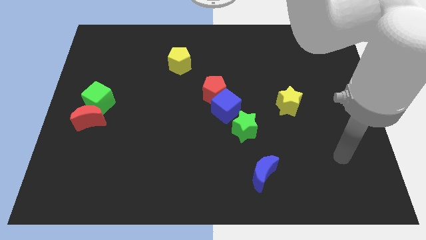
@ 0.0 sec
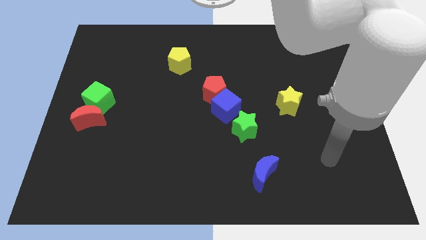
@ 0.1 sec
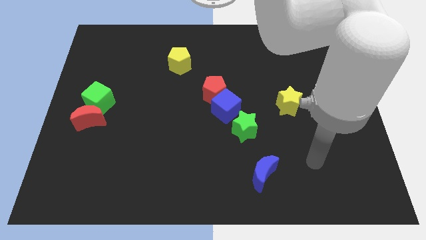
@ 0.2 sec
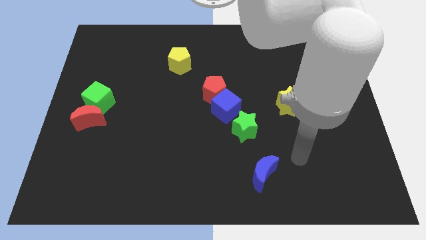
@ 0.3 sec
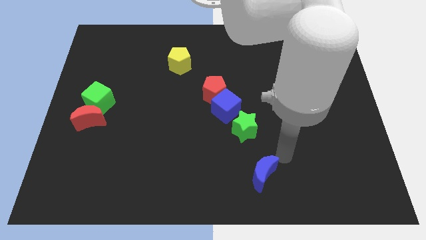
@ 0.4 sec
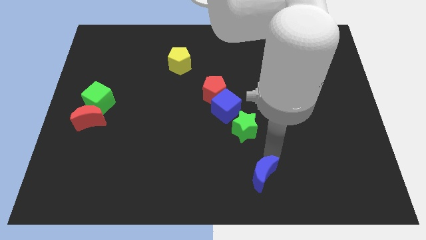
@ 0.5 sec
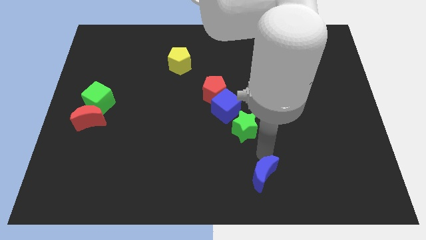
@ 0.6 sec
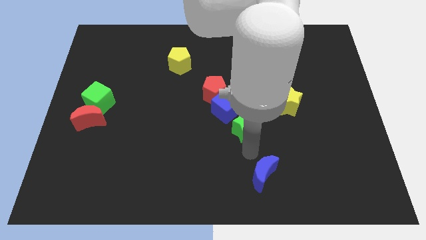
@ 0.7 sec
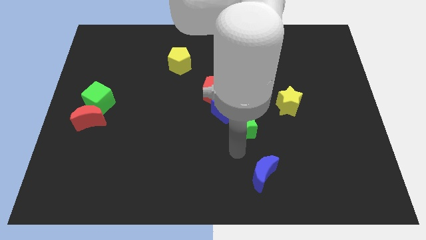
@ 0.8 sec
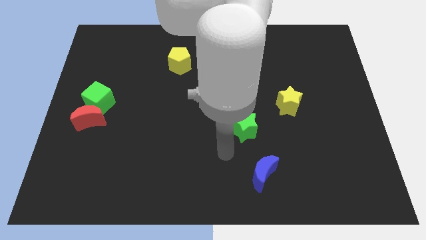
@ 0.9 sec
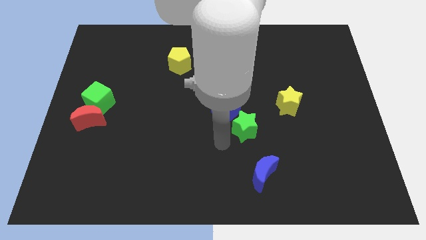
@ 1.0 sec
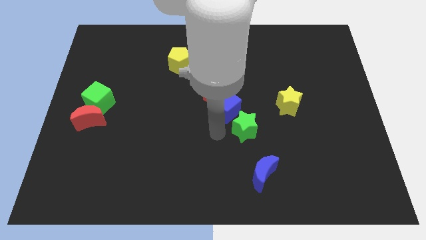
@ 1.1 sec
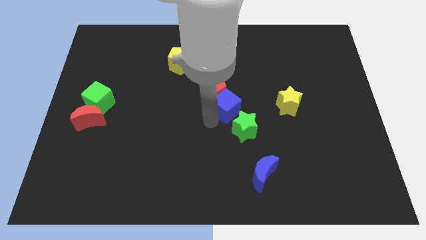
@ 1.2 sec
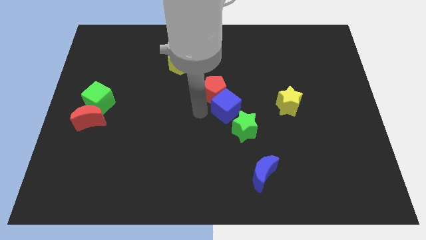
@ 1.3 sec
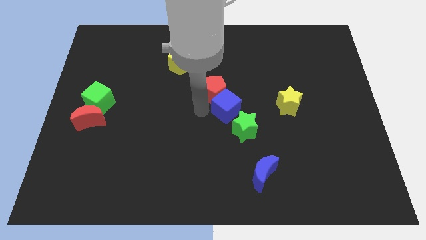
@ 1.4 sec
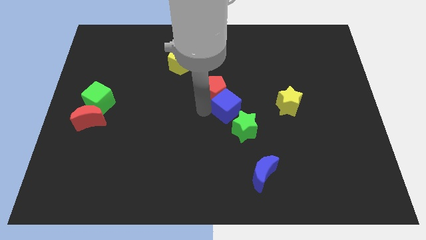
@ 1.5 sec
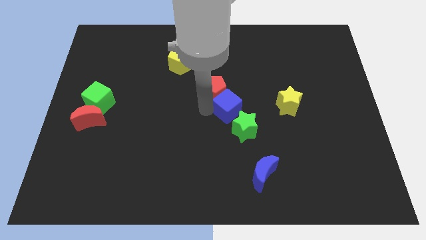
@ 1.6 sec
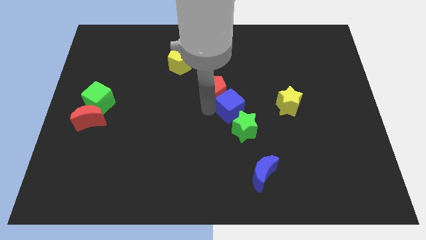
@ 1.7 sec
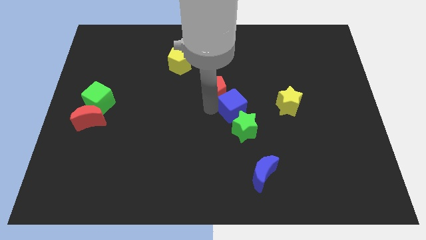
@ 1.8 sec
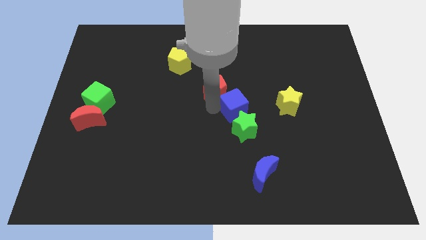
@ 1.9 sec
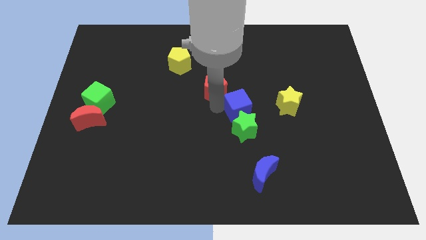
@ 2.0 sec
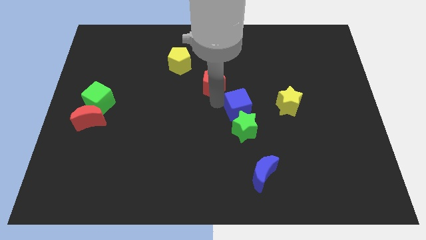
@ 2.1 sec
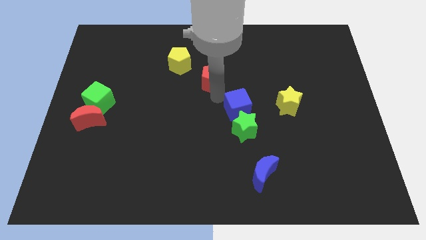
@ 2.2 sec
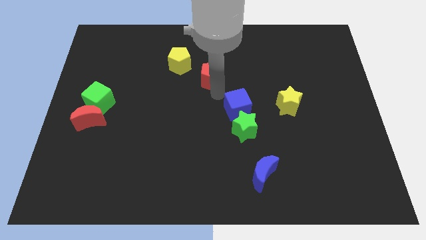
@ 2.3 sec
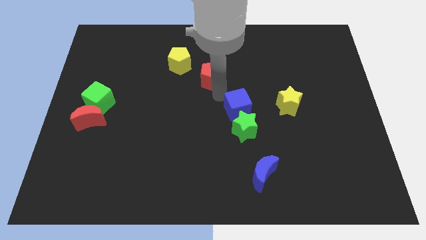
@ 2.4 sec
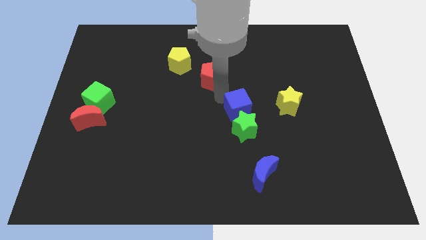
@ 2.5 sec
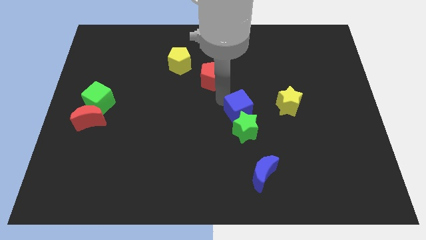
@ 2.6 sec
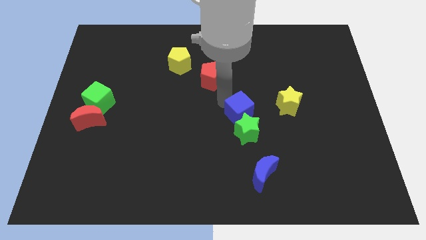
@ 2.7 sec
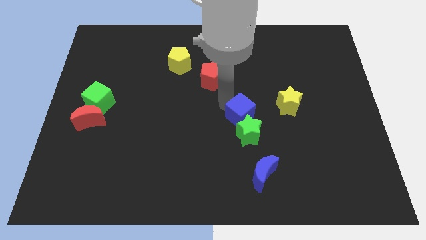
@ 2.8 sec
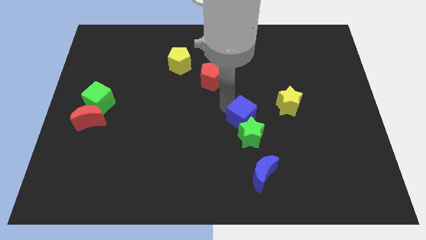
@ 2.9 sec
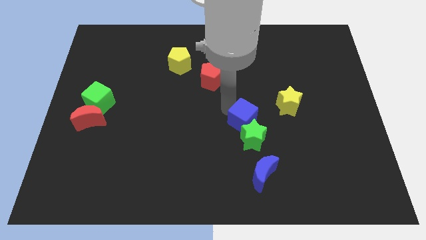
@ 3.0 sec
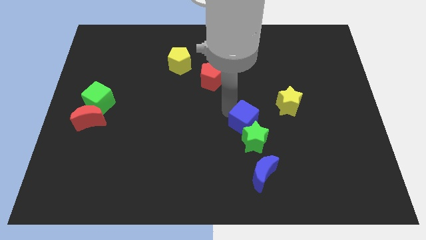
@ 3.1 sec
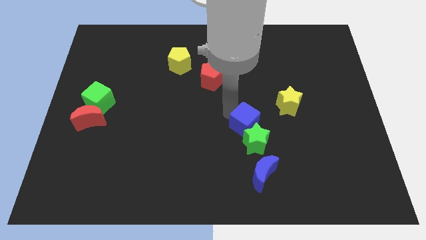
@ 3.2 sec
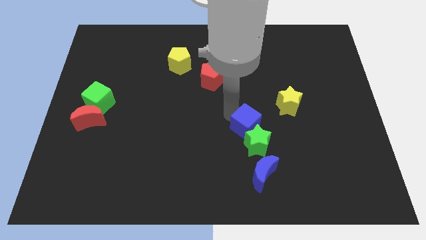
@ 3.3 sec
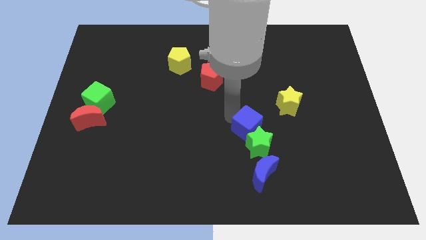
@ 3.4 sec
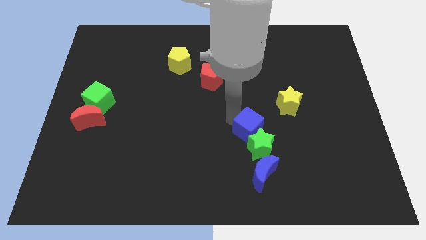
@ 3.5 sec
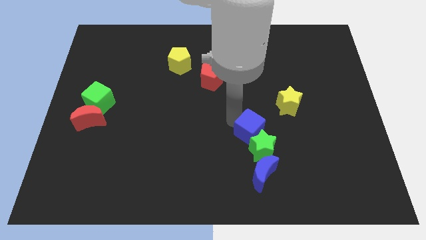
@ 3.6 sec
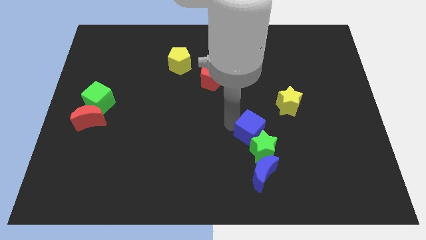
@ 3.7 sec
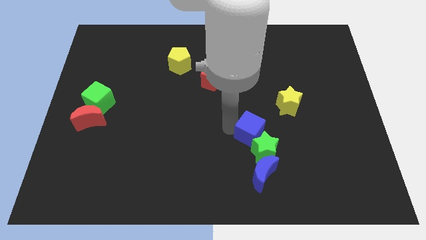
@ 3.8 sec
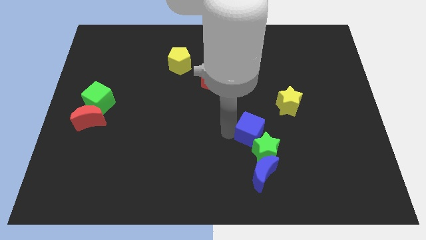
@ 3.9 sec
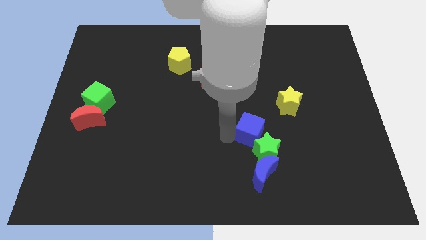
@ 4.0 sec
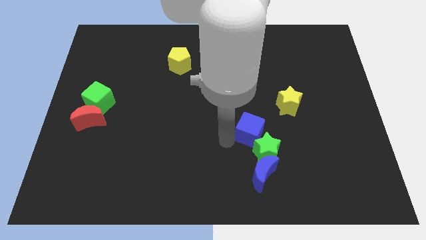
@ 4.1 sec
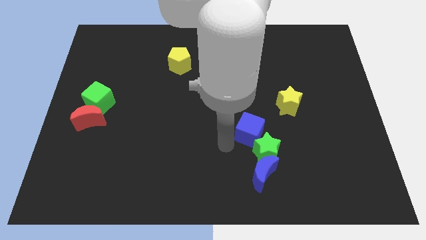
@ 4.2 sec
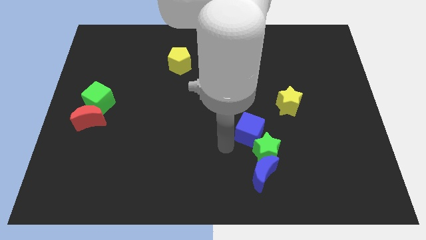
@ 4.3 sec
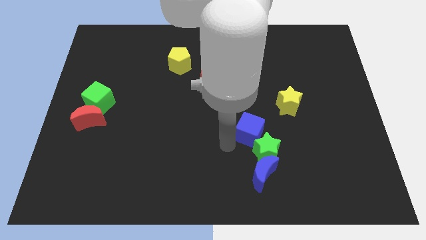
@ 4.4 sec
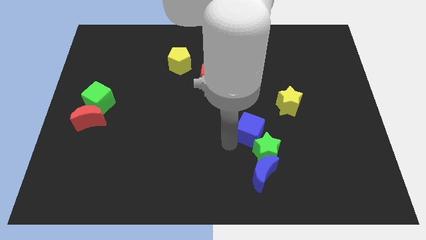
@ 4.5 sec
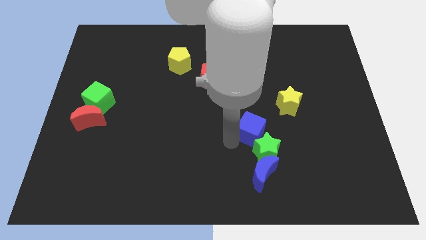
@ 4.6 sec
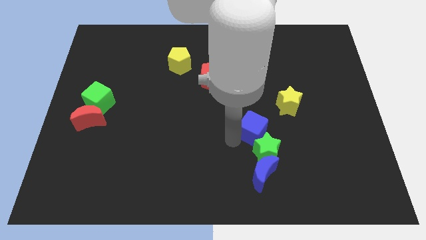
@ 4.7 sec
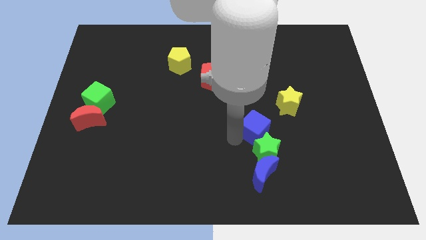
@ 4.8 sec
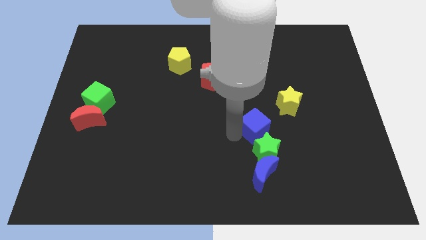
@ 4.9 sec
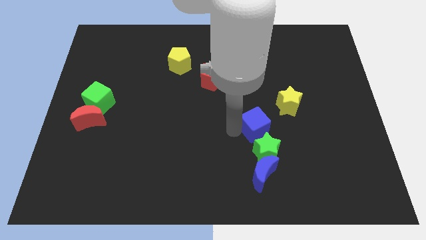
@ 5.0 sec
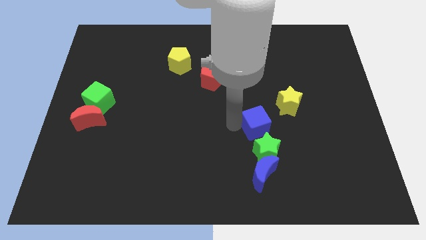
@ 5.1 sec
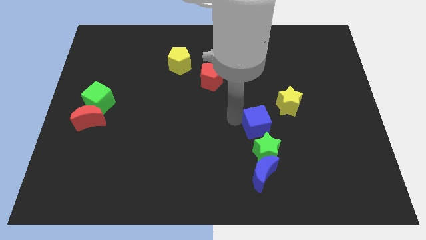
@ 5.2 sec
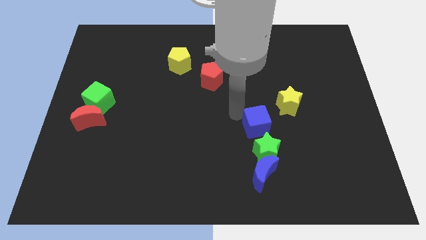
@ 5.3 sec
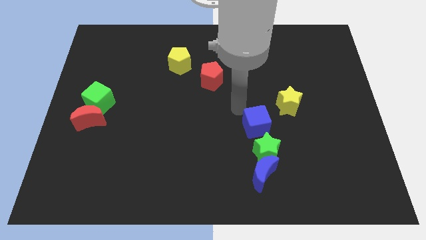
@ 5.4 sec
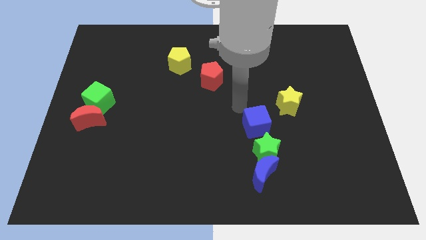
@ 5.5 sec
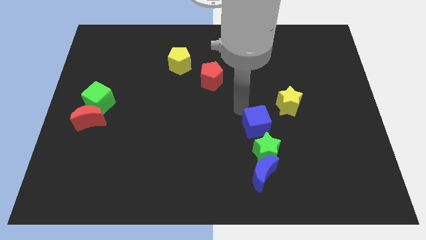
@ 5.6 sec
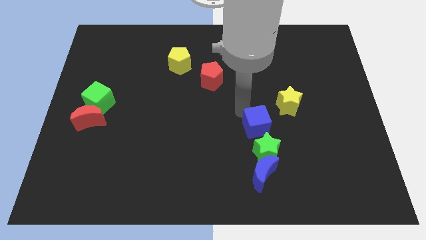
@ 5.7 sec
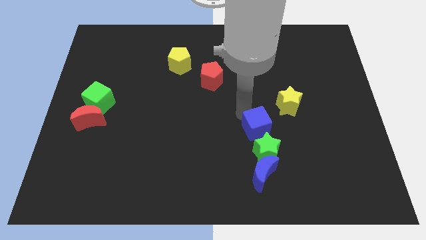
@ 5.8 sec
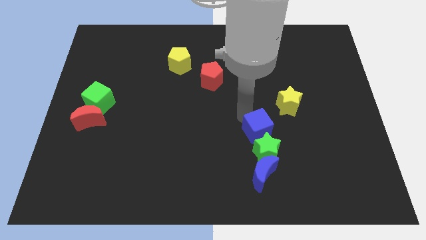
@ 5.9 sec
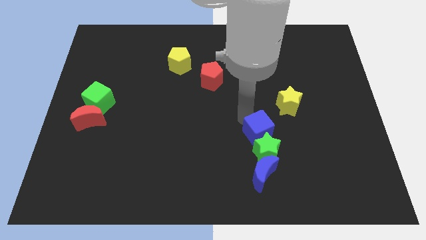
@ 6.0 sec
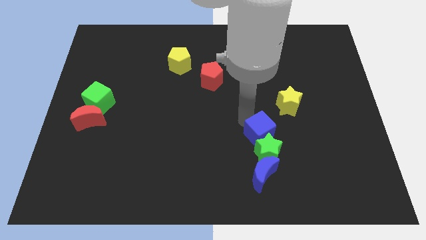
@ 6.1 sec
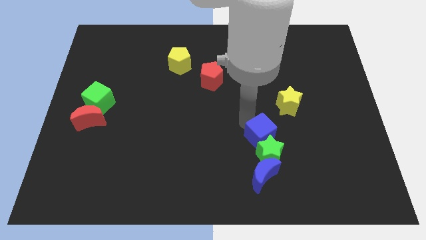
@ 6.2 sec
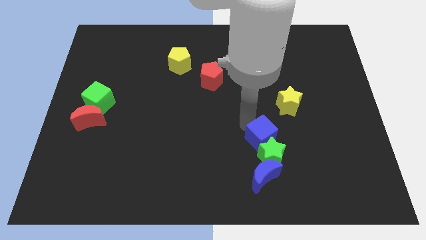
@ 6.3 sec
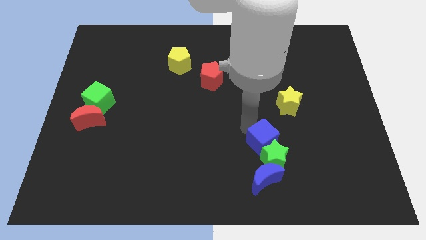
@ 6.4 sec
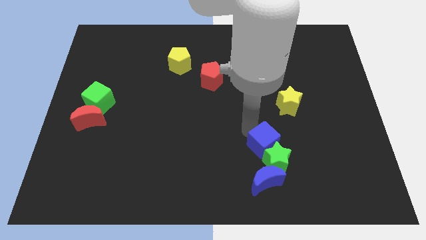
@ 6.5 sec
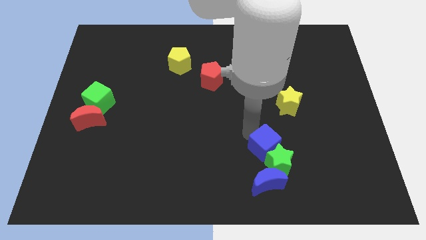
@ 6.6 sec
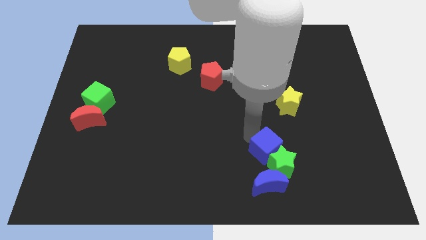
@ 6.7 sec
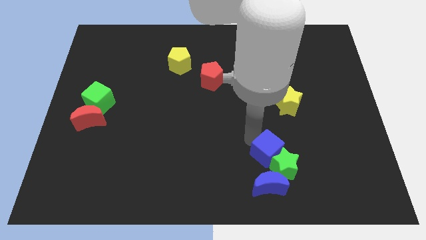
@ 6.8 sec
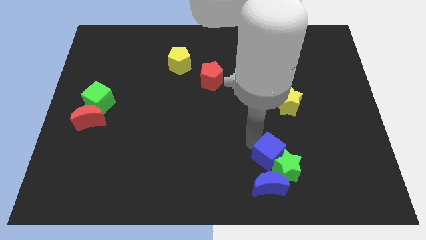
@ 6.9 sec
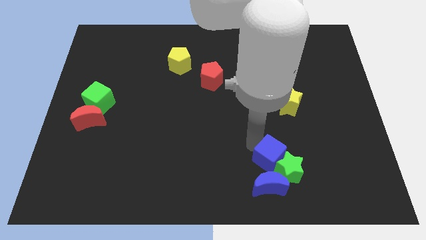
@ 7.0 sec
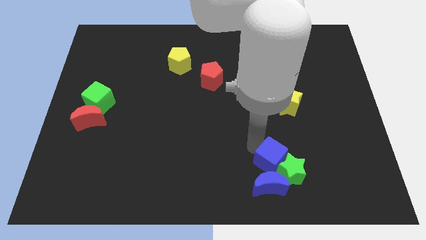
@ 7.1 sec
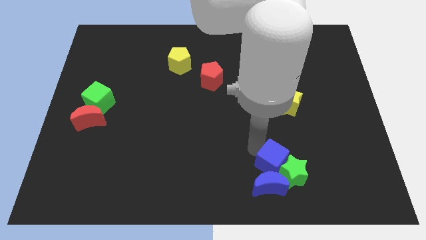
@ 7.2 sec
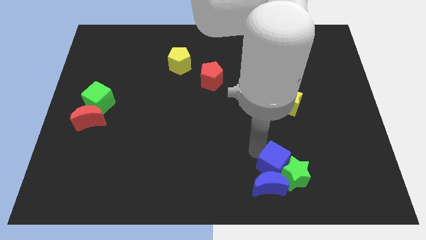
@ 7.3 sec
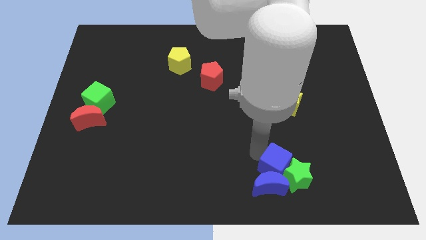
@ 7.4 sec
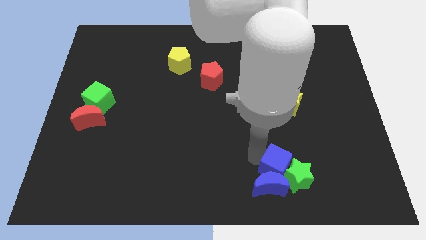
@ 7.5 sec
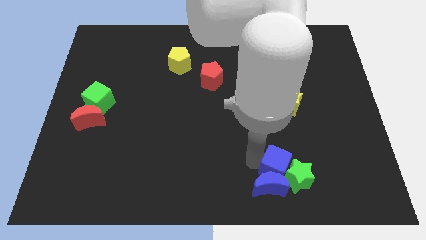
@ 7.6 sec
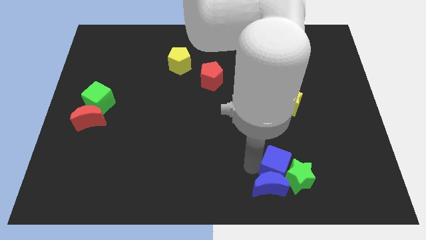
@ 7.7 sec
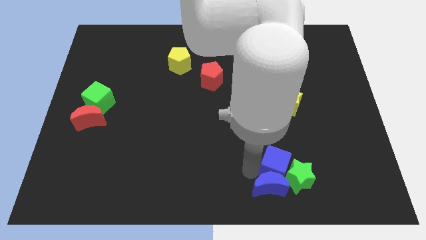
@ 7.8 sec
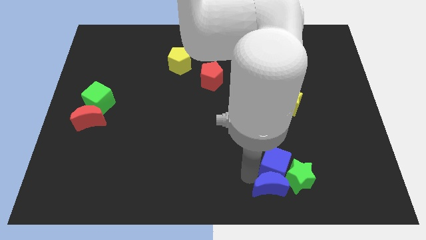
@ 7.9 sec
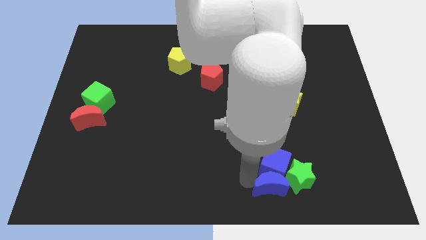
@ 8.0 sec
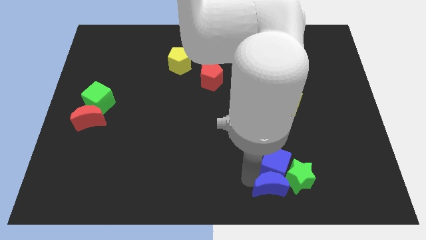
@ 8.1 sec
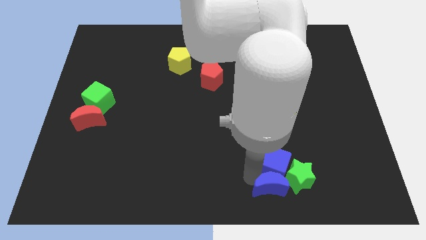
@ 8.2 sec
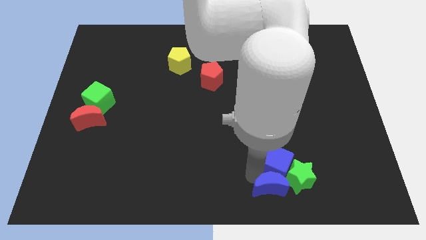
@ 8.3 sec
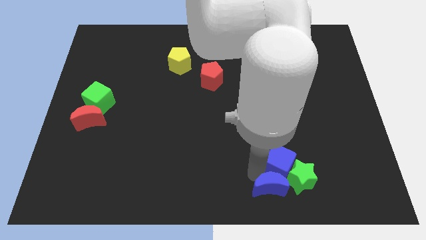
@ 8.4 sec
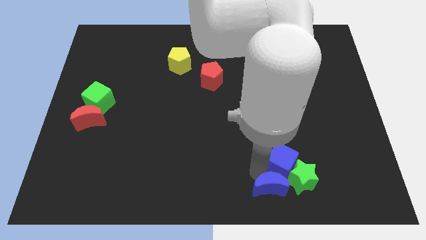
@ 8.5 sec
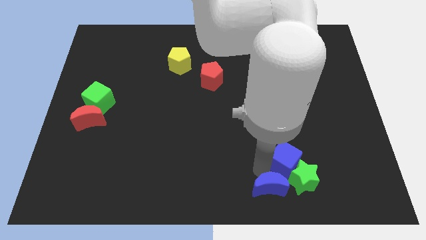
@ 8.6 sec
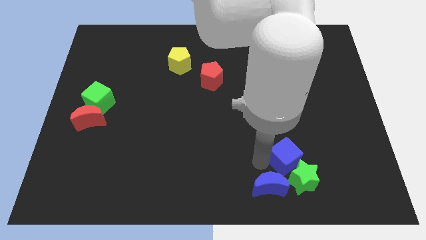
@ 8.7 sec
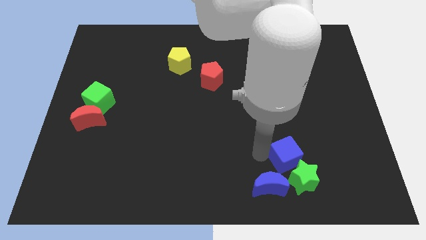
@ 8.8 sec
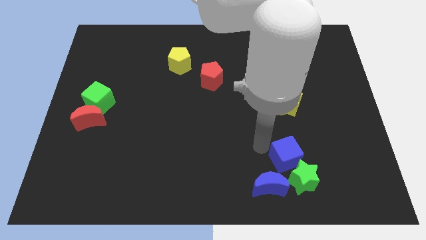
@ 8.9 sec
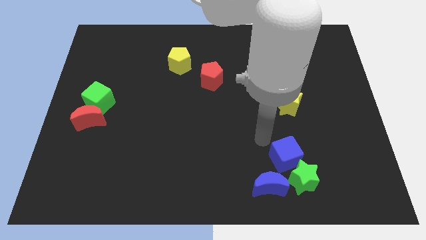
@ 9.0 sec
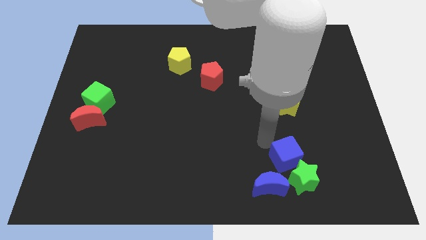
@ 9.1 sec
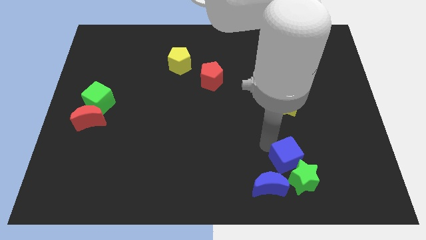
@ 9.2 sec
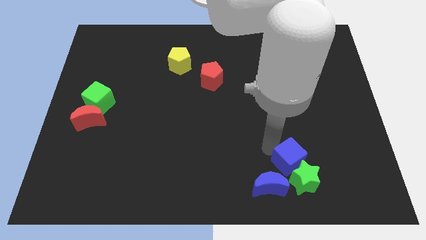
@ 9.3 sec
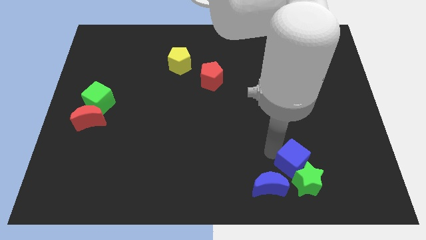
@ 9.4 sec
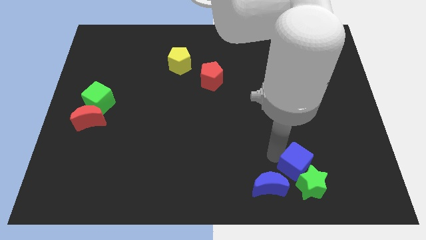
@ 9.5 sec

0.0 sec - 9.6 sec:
push the blue cube to the right of the blue moon
